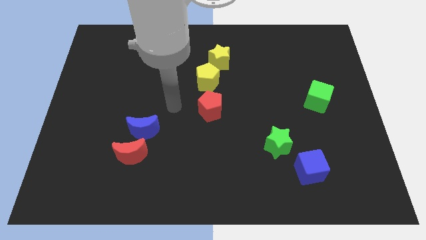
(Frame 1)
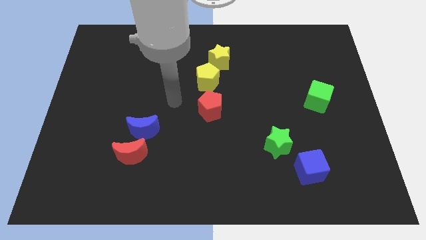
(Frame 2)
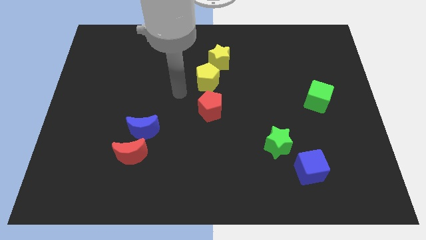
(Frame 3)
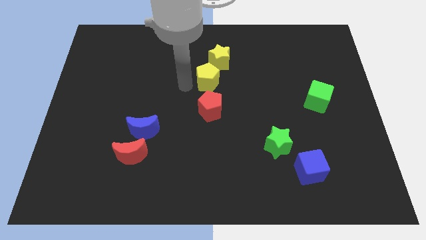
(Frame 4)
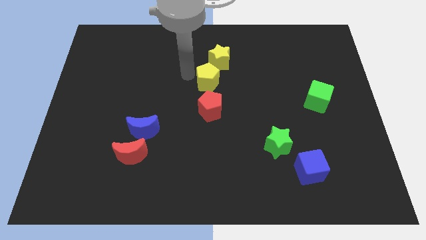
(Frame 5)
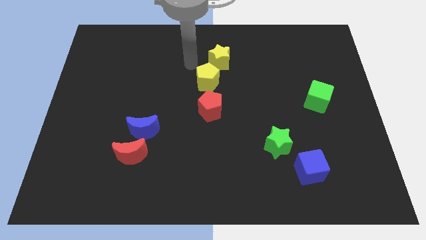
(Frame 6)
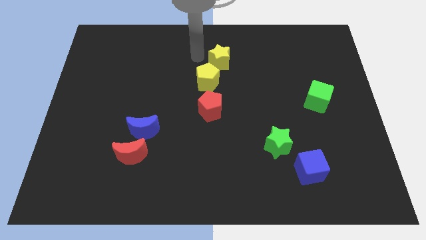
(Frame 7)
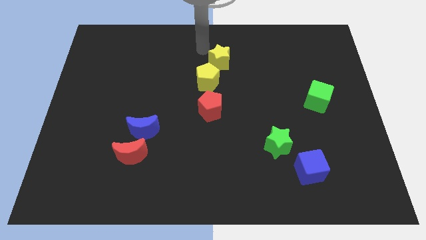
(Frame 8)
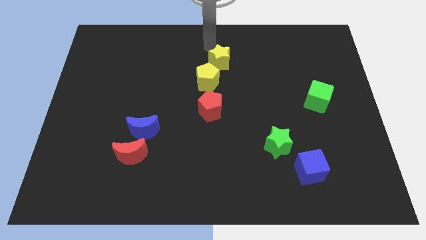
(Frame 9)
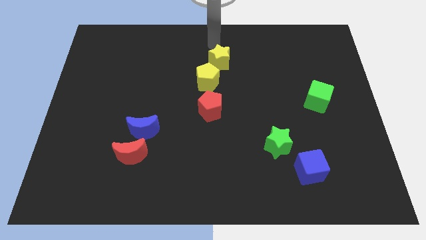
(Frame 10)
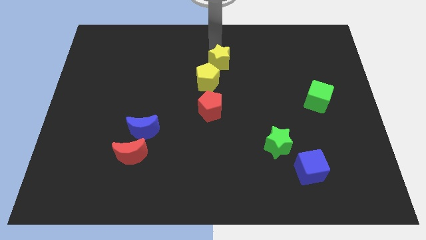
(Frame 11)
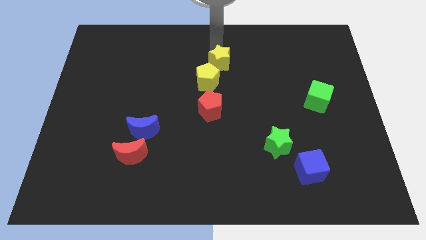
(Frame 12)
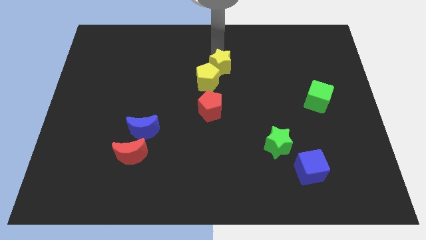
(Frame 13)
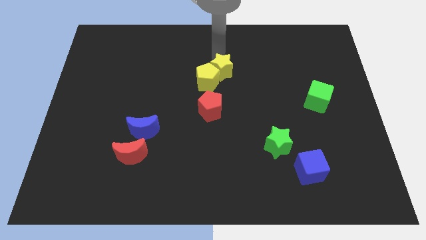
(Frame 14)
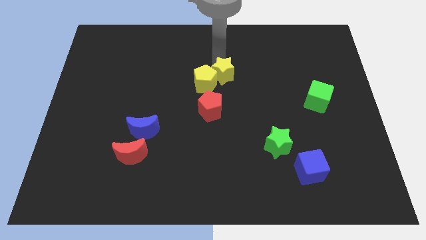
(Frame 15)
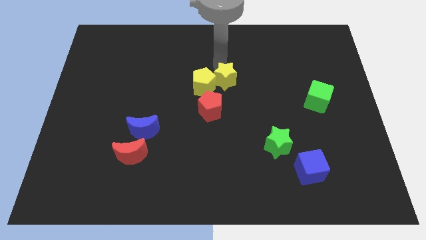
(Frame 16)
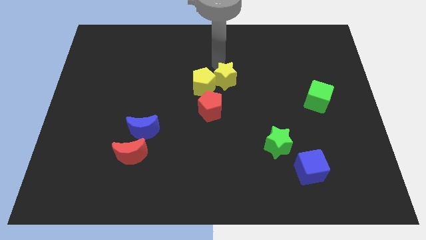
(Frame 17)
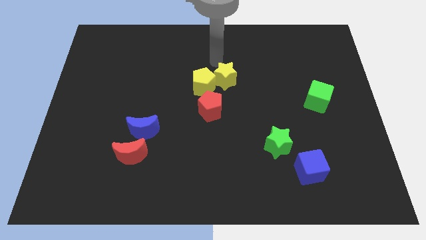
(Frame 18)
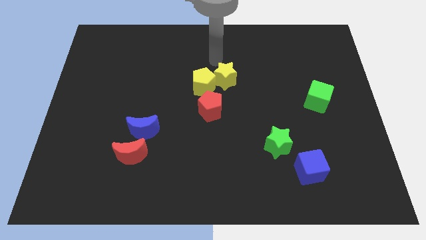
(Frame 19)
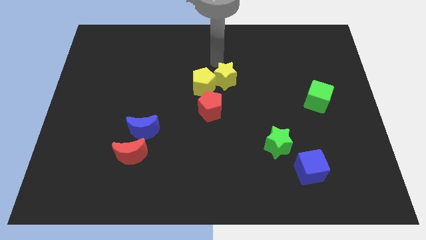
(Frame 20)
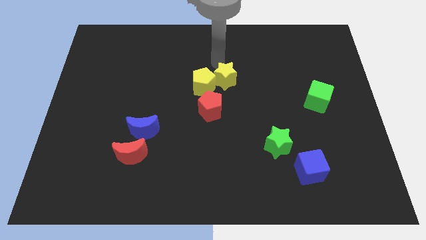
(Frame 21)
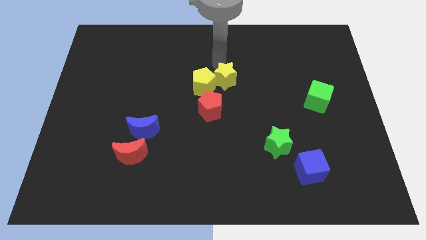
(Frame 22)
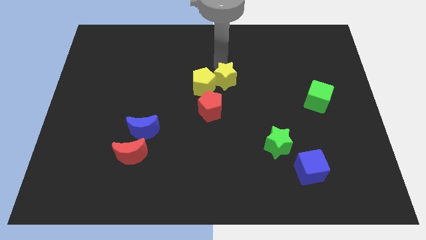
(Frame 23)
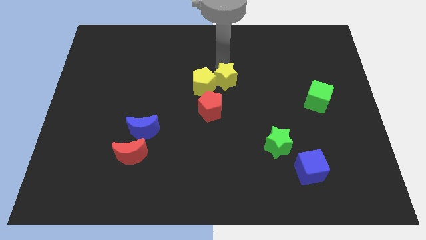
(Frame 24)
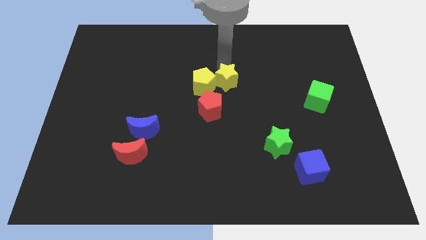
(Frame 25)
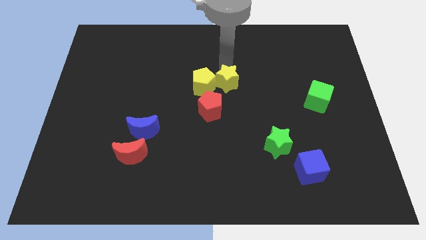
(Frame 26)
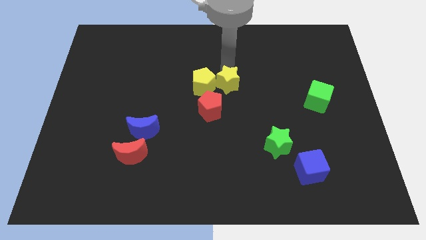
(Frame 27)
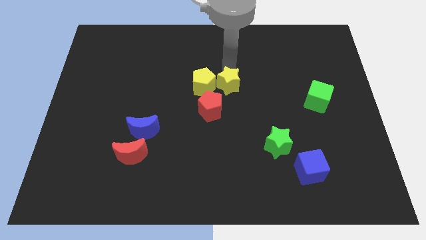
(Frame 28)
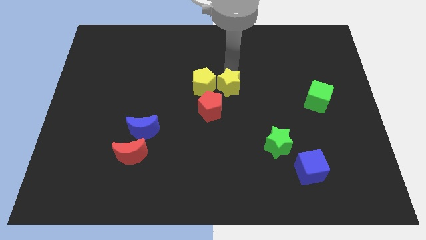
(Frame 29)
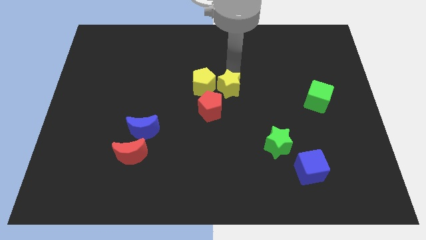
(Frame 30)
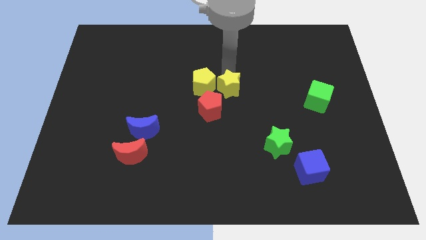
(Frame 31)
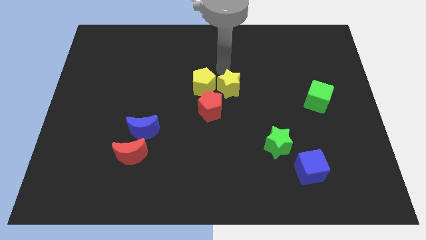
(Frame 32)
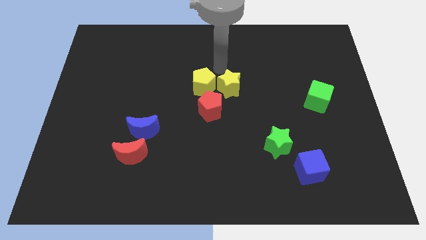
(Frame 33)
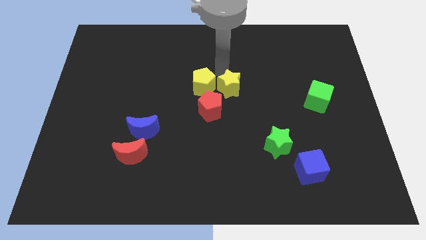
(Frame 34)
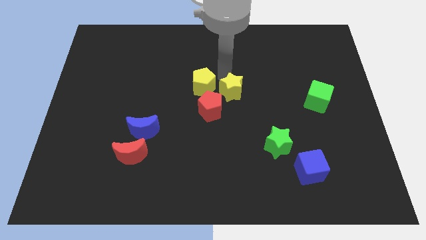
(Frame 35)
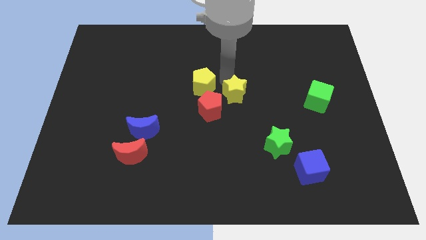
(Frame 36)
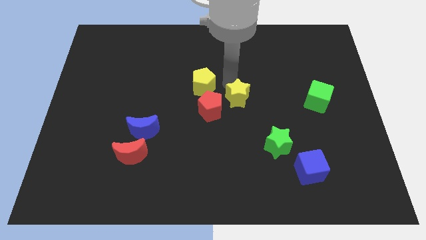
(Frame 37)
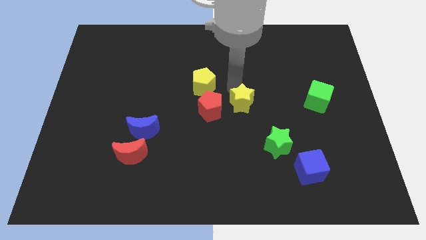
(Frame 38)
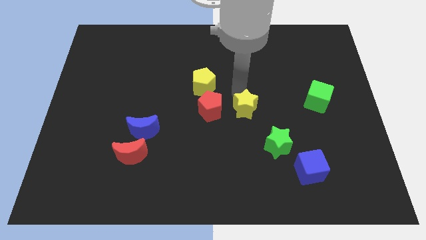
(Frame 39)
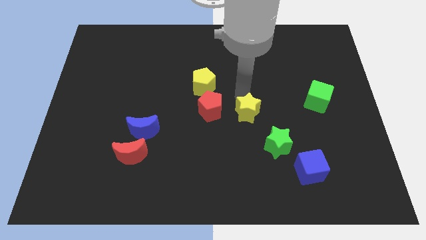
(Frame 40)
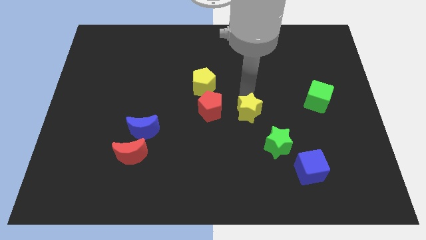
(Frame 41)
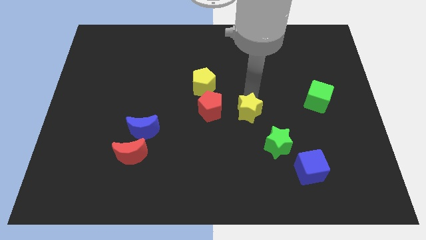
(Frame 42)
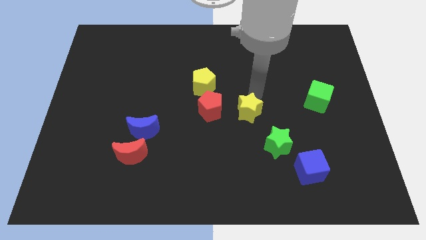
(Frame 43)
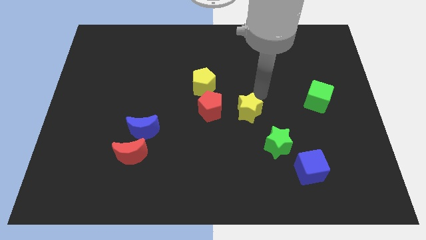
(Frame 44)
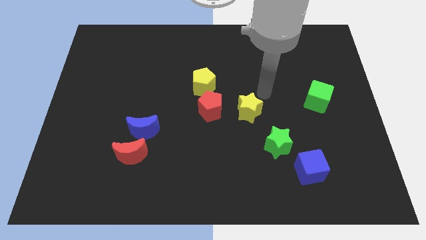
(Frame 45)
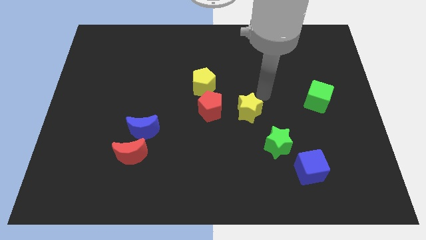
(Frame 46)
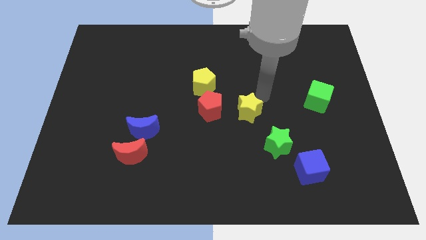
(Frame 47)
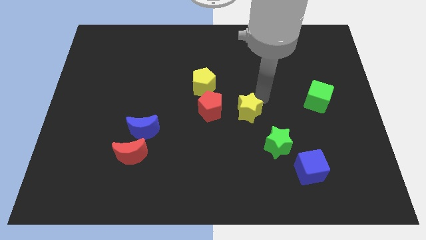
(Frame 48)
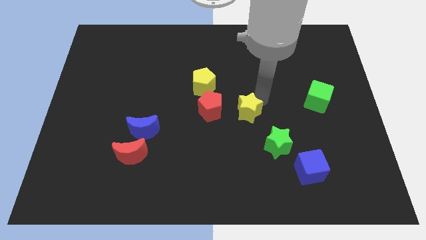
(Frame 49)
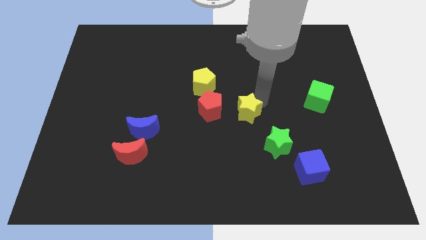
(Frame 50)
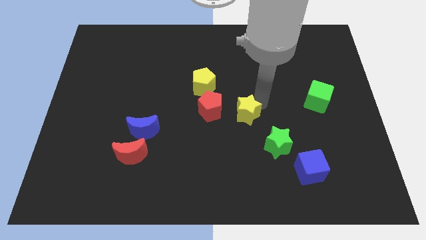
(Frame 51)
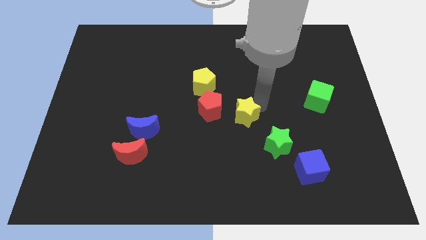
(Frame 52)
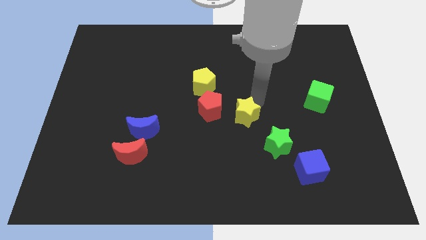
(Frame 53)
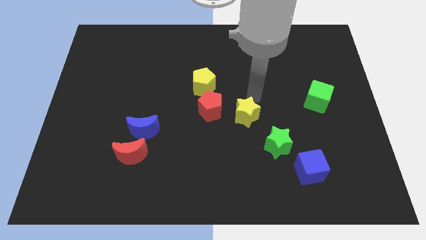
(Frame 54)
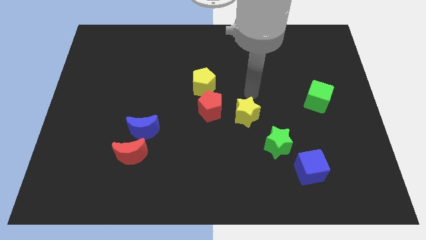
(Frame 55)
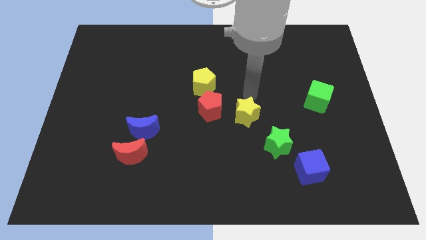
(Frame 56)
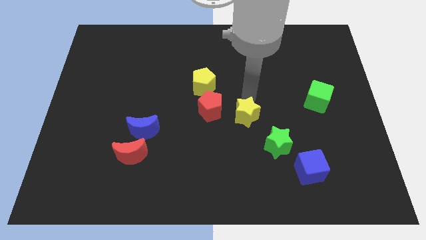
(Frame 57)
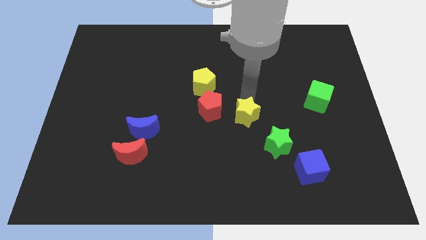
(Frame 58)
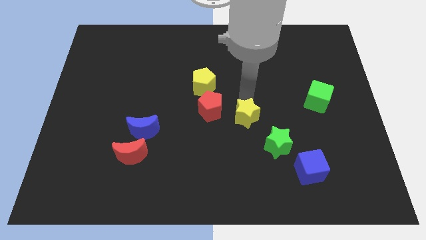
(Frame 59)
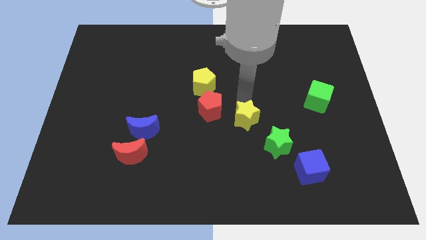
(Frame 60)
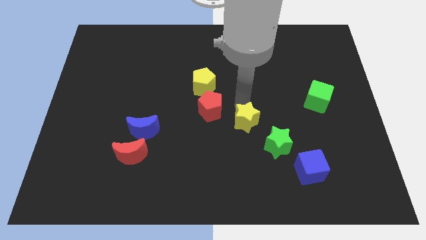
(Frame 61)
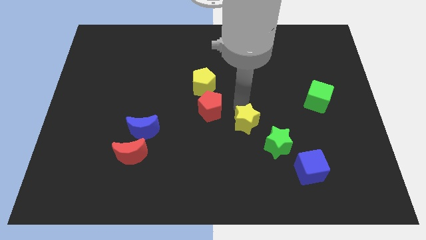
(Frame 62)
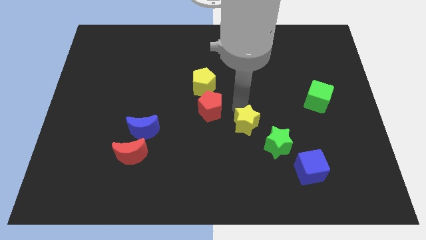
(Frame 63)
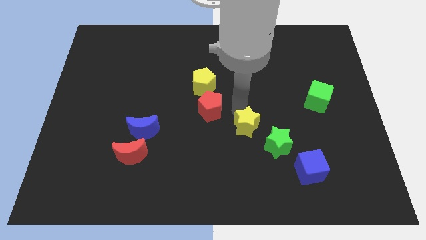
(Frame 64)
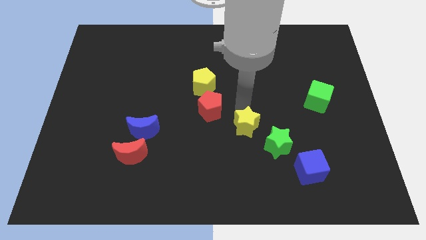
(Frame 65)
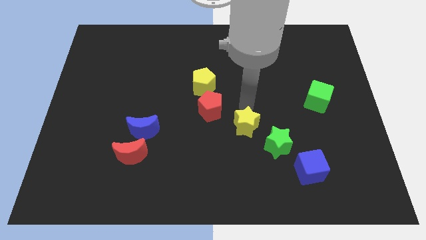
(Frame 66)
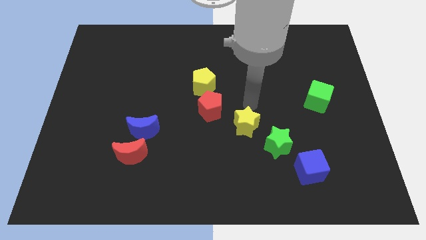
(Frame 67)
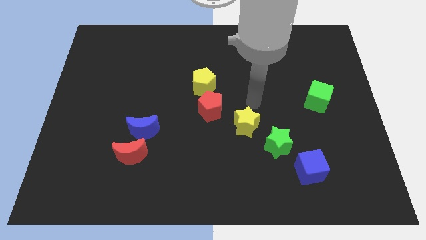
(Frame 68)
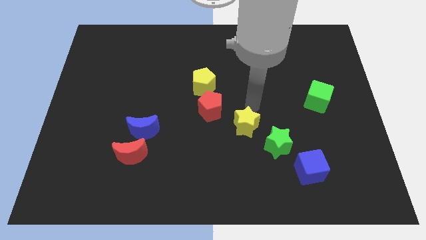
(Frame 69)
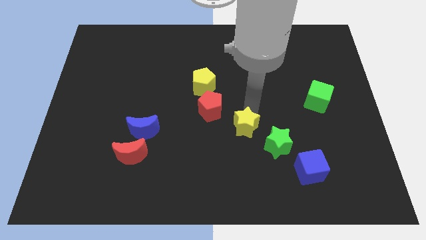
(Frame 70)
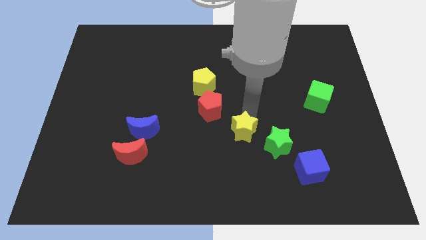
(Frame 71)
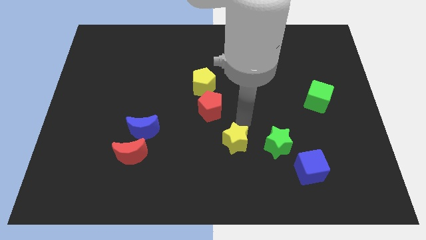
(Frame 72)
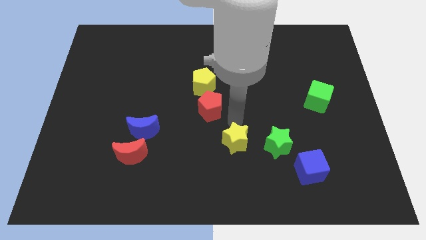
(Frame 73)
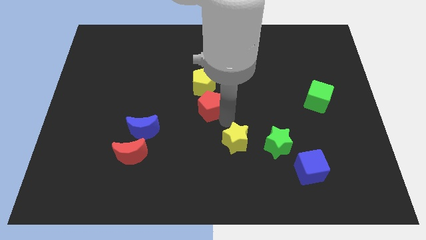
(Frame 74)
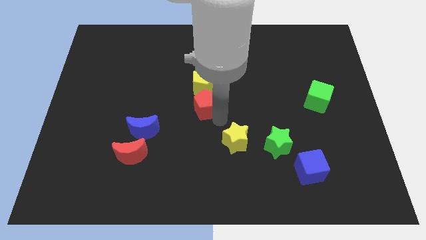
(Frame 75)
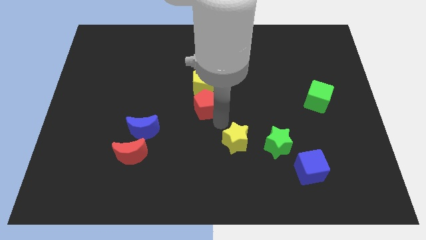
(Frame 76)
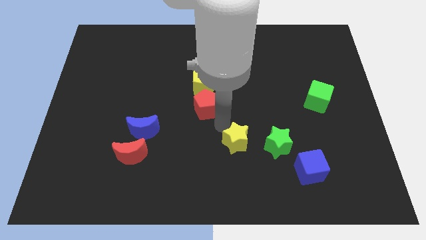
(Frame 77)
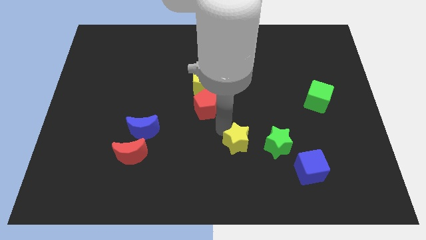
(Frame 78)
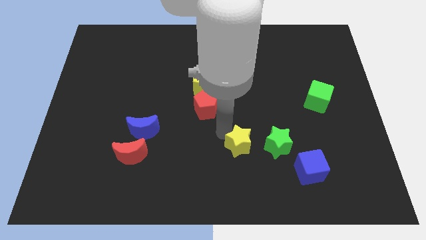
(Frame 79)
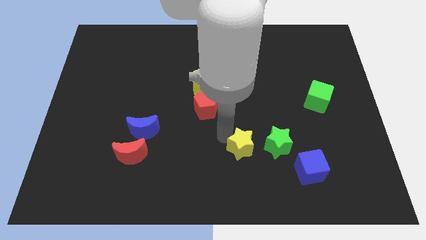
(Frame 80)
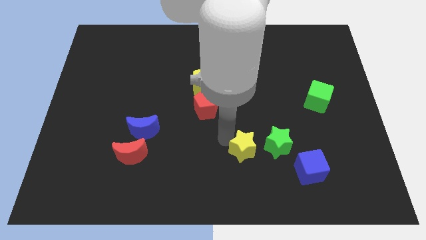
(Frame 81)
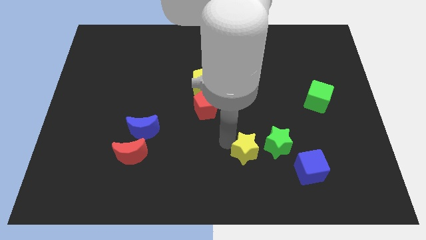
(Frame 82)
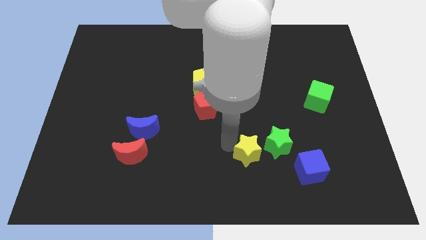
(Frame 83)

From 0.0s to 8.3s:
move the yellow star just left of the blue cube
